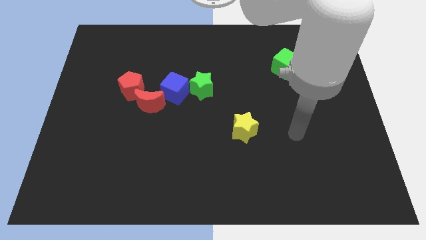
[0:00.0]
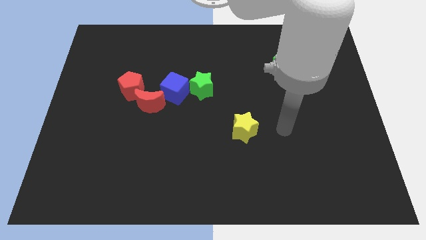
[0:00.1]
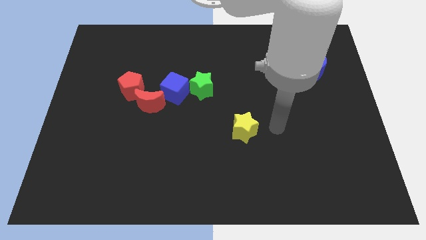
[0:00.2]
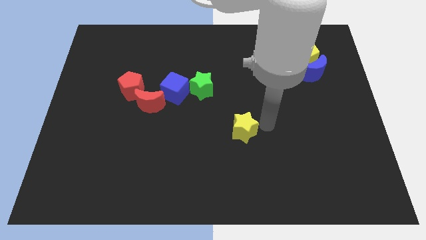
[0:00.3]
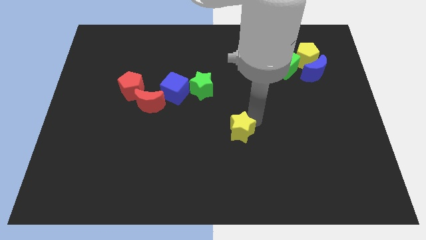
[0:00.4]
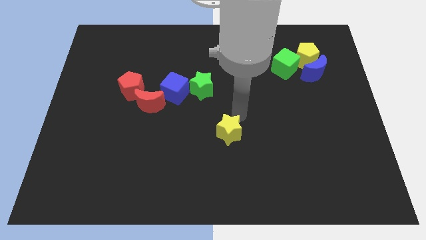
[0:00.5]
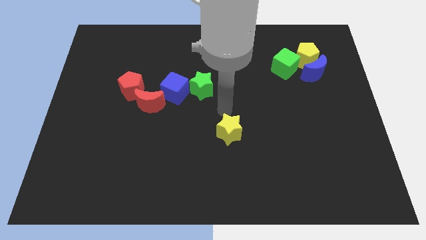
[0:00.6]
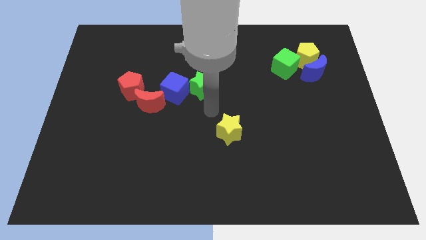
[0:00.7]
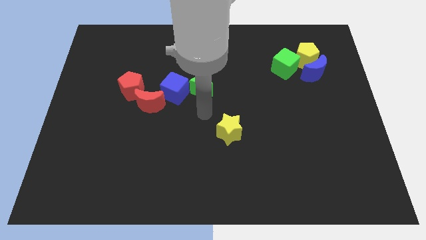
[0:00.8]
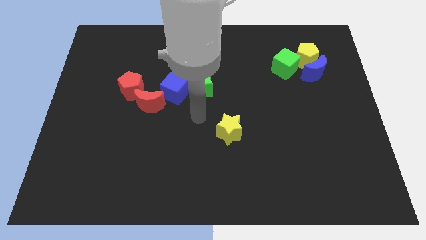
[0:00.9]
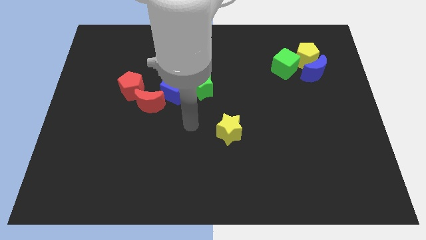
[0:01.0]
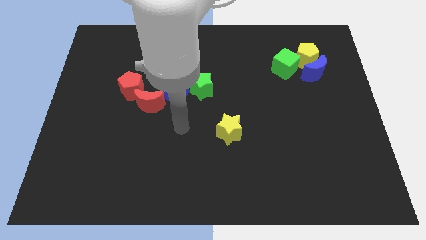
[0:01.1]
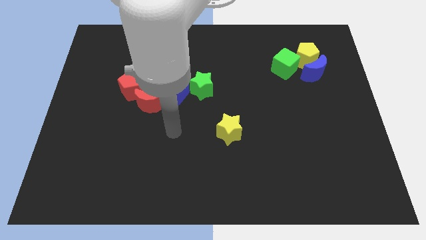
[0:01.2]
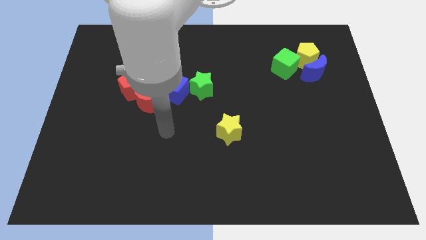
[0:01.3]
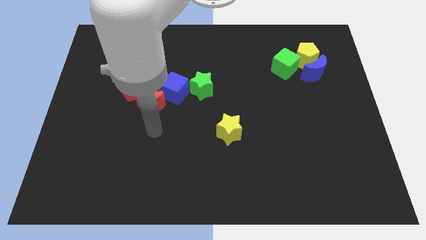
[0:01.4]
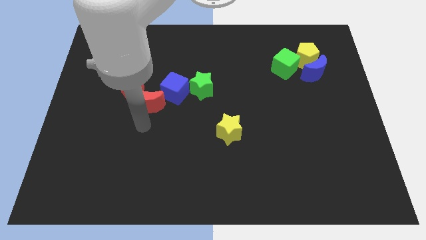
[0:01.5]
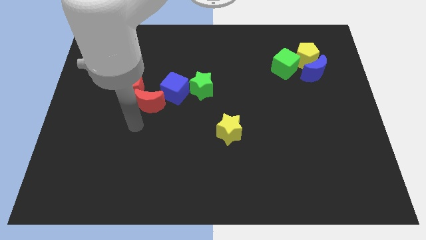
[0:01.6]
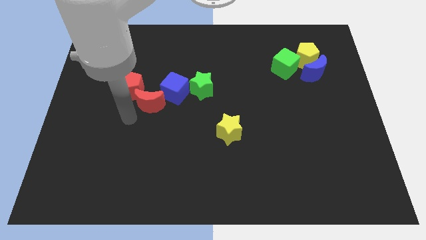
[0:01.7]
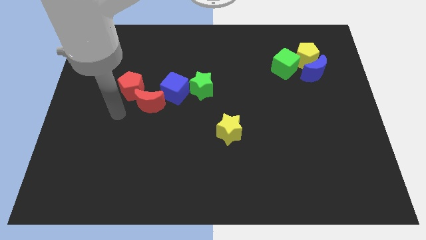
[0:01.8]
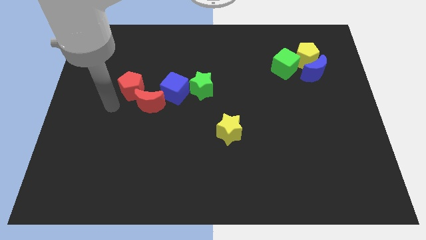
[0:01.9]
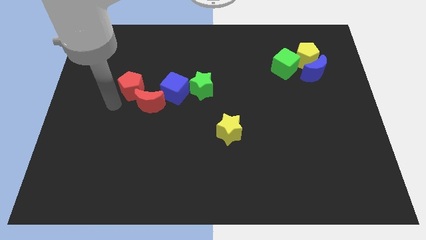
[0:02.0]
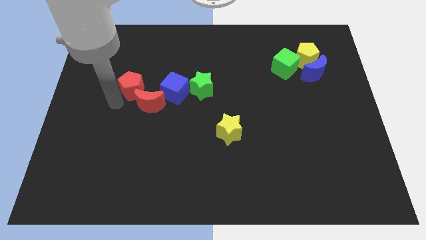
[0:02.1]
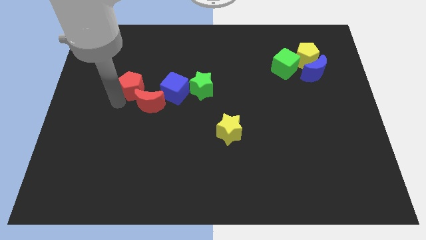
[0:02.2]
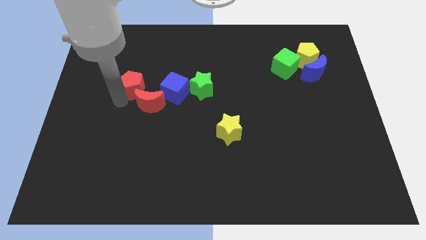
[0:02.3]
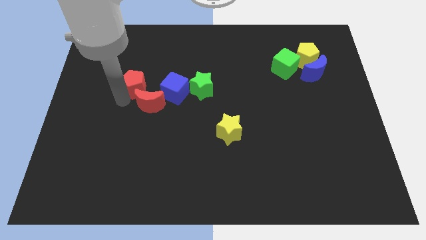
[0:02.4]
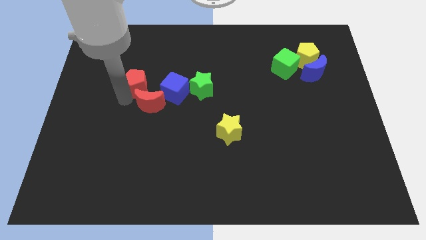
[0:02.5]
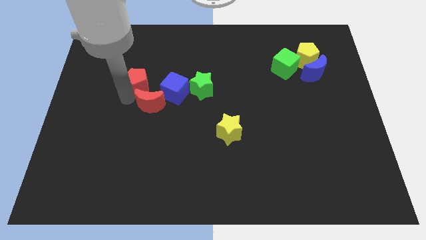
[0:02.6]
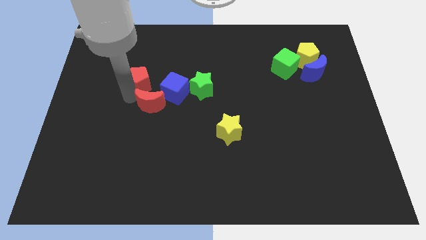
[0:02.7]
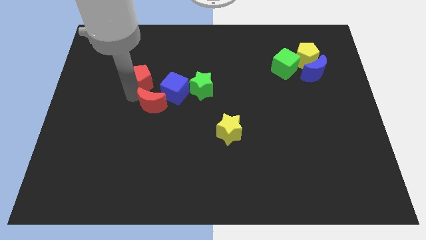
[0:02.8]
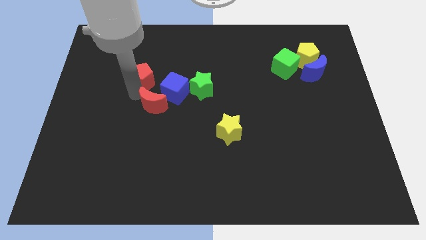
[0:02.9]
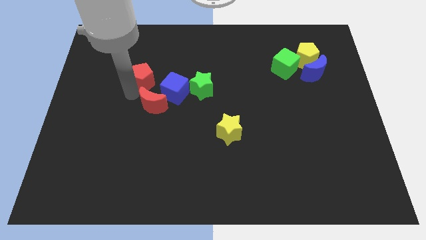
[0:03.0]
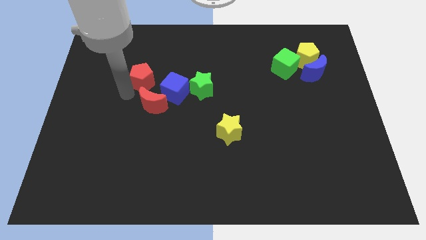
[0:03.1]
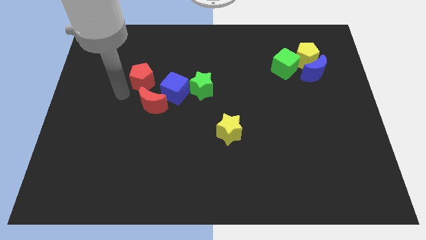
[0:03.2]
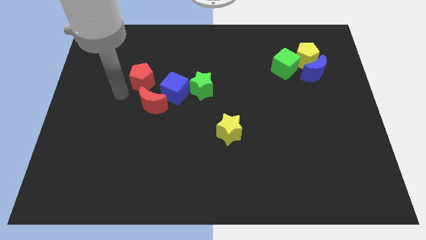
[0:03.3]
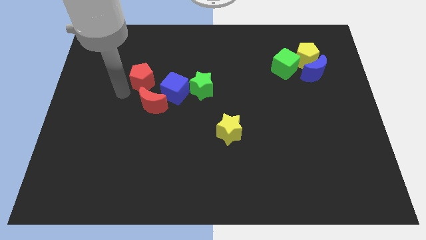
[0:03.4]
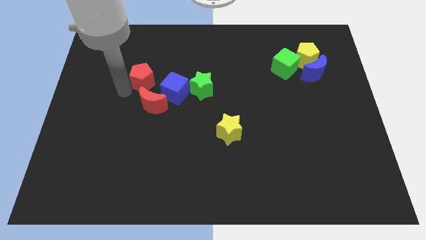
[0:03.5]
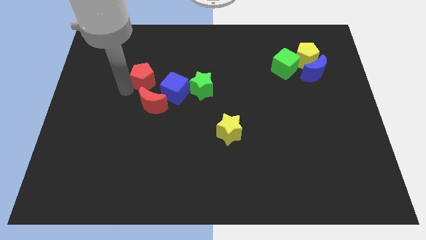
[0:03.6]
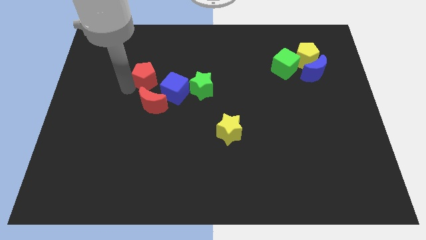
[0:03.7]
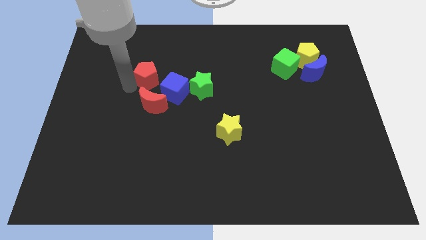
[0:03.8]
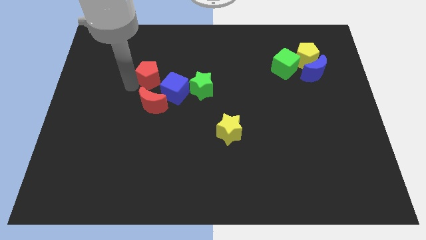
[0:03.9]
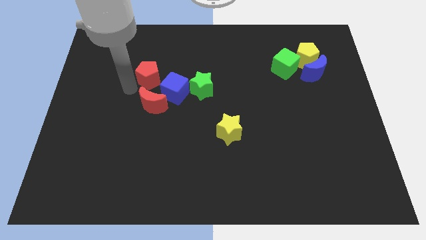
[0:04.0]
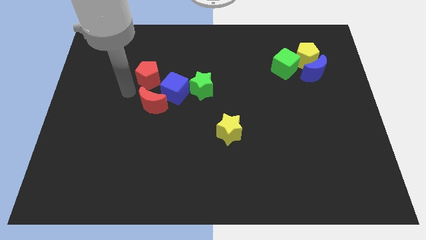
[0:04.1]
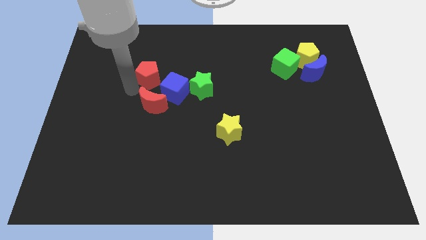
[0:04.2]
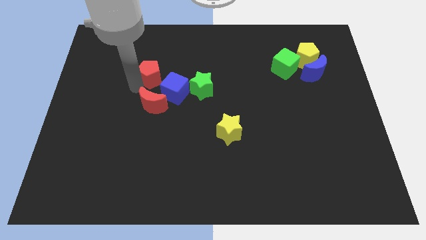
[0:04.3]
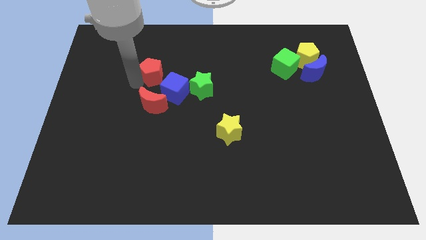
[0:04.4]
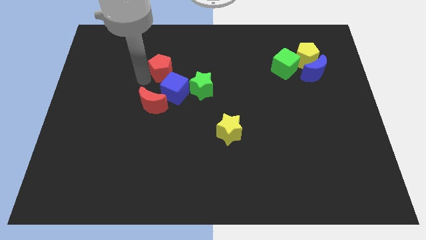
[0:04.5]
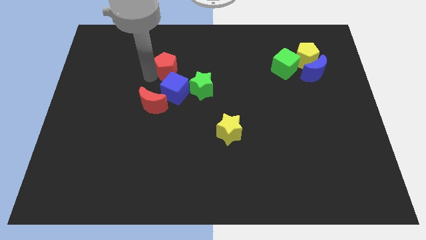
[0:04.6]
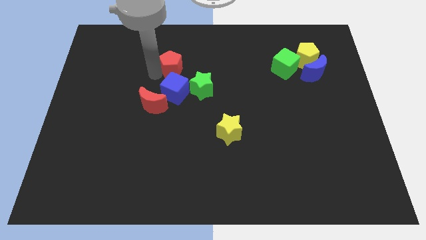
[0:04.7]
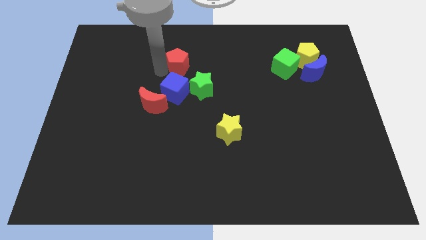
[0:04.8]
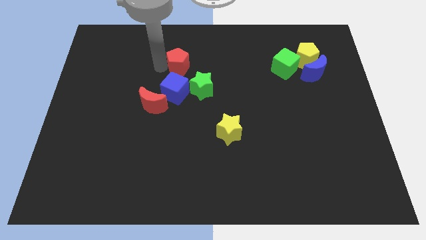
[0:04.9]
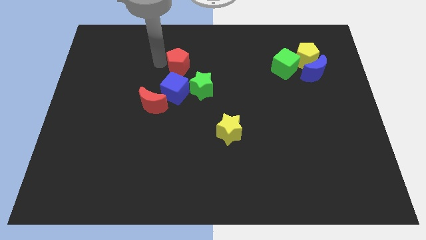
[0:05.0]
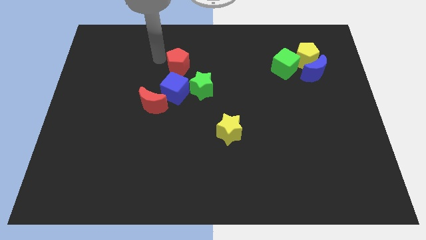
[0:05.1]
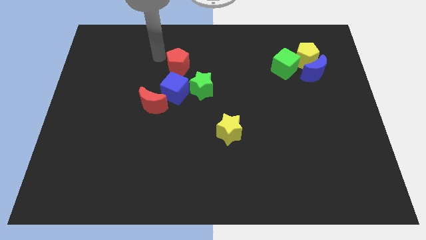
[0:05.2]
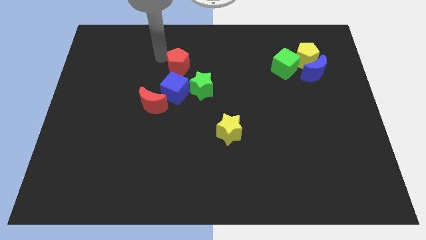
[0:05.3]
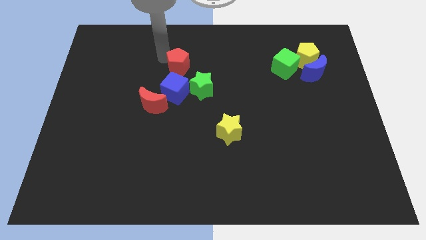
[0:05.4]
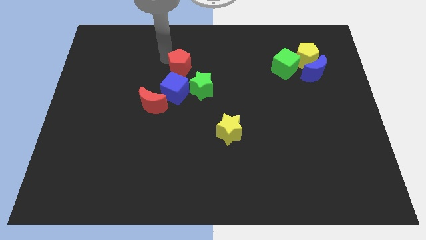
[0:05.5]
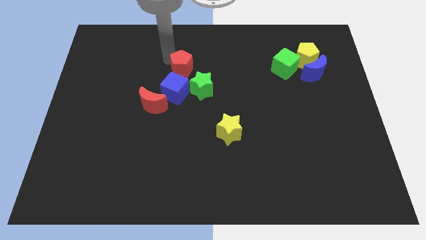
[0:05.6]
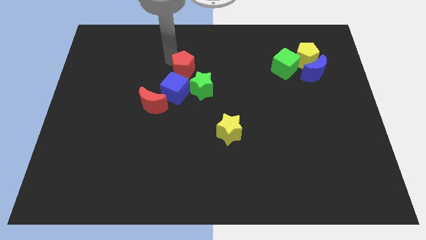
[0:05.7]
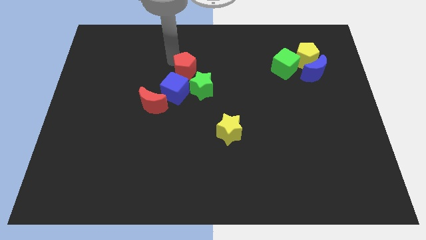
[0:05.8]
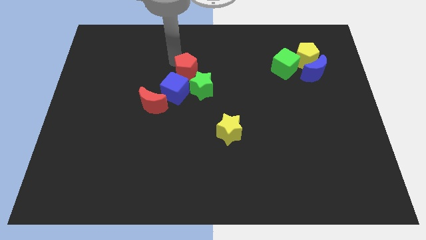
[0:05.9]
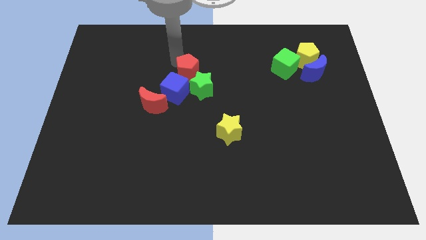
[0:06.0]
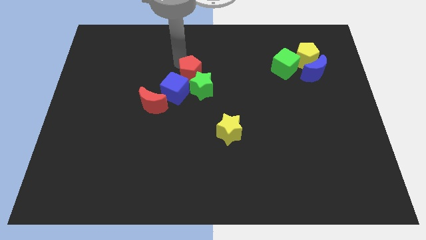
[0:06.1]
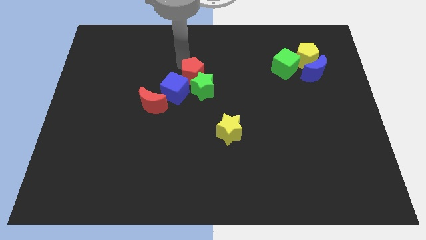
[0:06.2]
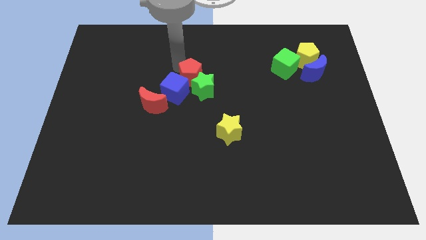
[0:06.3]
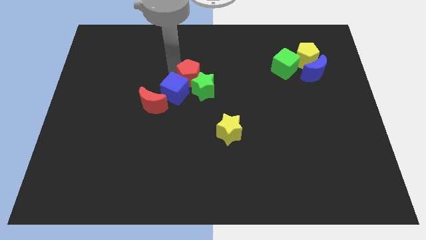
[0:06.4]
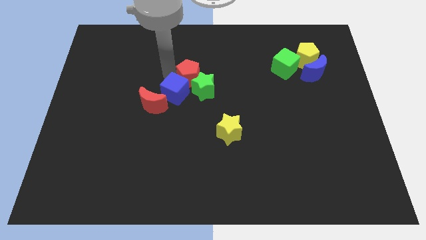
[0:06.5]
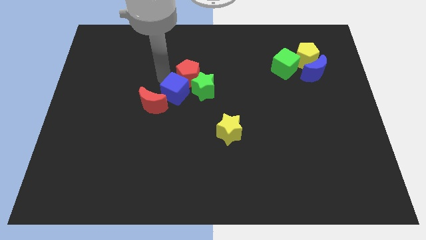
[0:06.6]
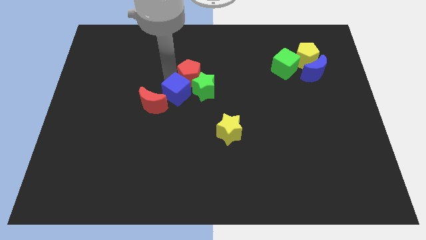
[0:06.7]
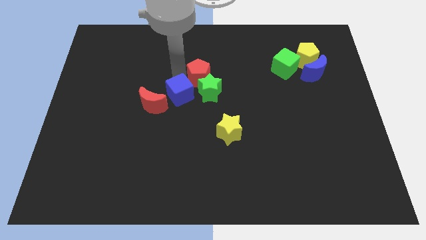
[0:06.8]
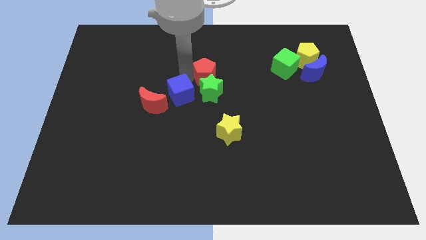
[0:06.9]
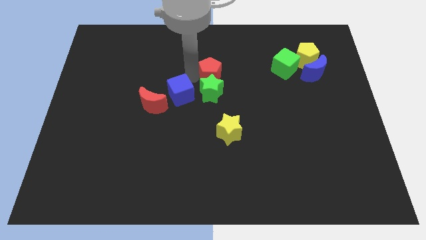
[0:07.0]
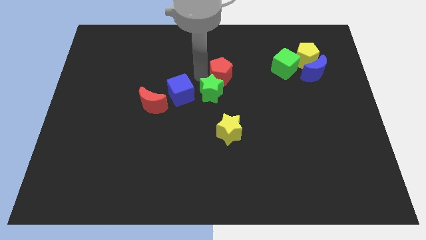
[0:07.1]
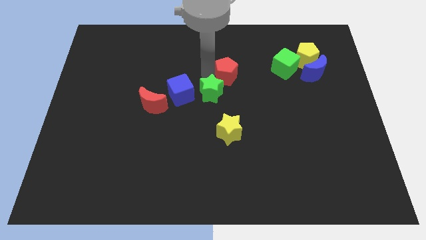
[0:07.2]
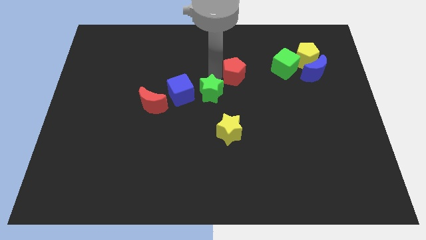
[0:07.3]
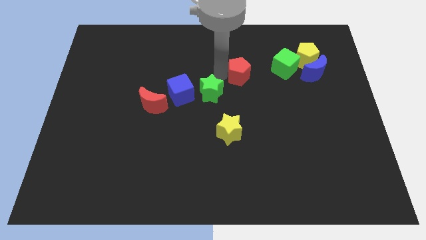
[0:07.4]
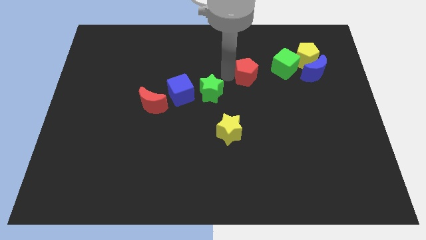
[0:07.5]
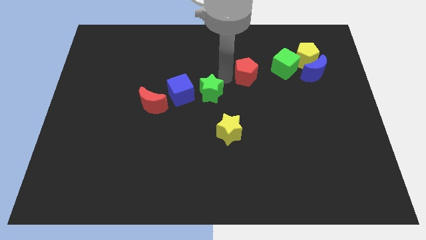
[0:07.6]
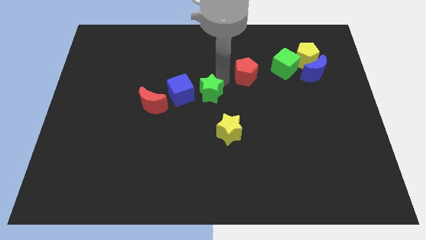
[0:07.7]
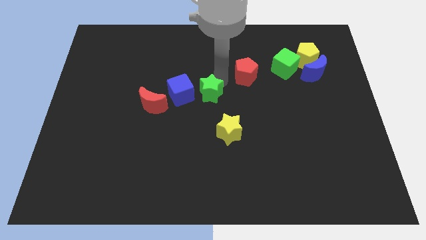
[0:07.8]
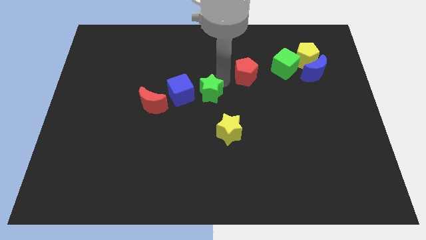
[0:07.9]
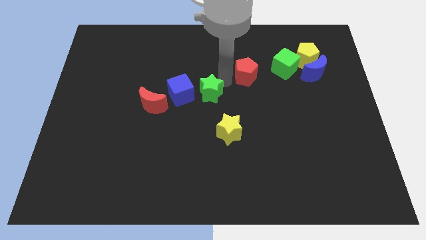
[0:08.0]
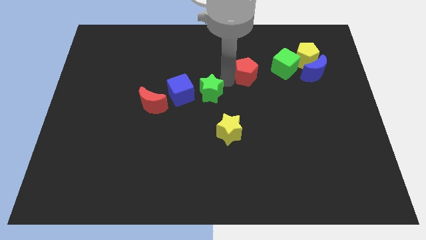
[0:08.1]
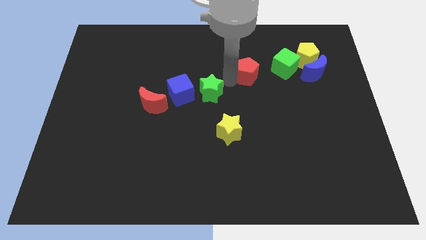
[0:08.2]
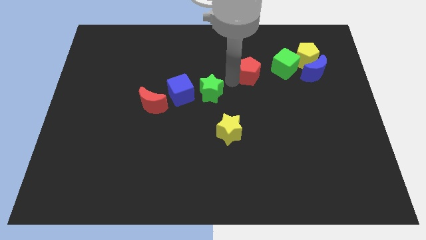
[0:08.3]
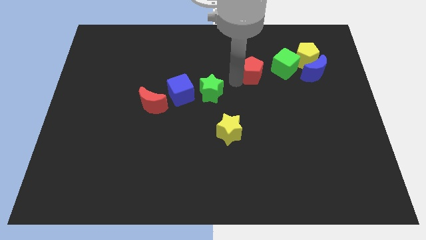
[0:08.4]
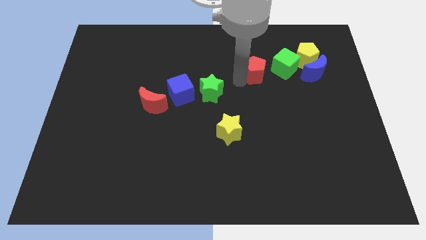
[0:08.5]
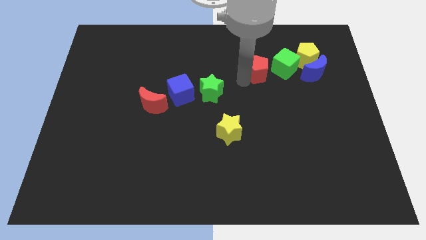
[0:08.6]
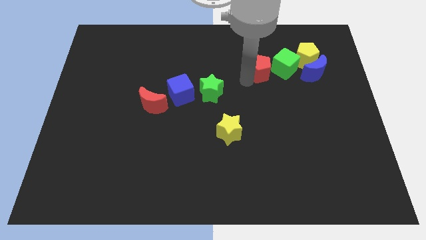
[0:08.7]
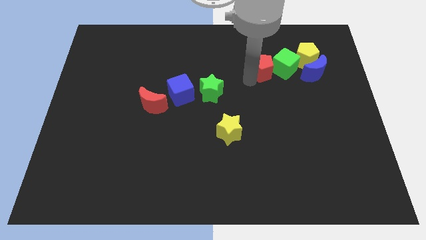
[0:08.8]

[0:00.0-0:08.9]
put the red pentagon next to the green cube
